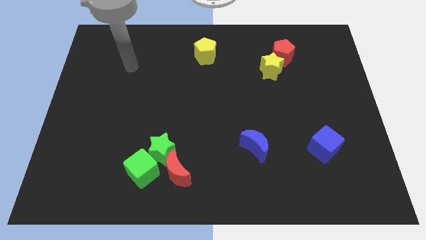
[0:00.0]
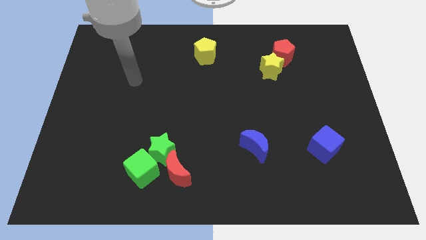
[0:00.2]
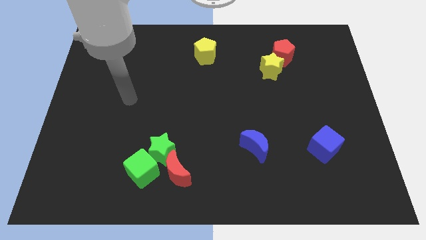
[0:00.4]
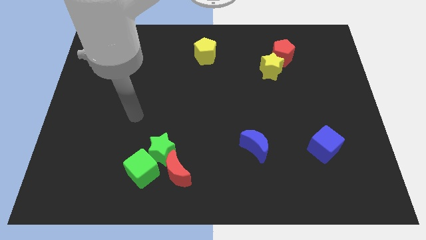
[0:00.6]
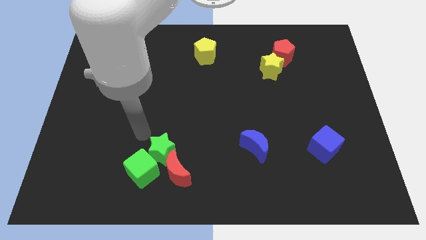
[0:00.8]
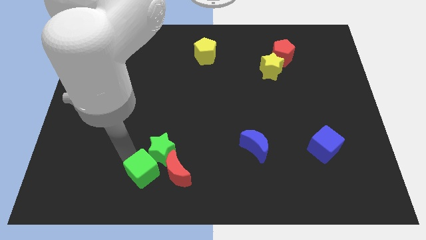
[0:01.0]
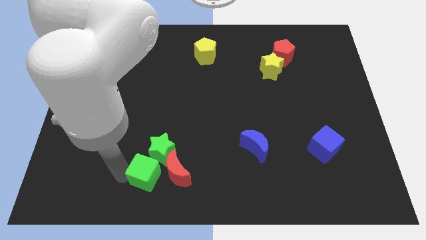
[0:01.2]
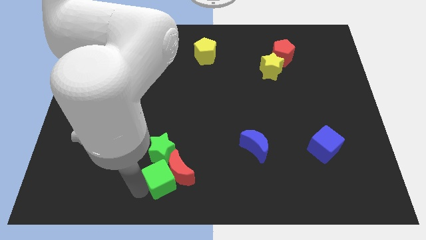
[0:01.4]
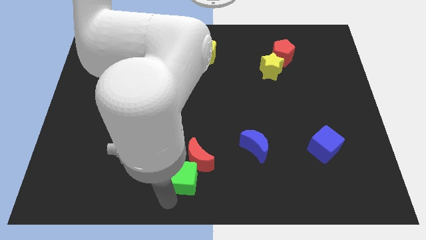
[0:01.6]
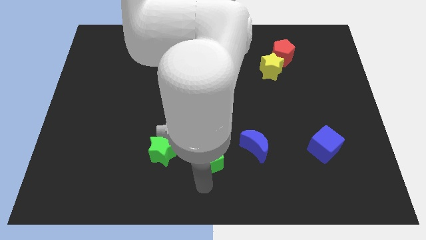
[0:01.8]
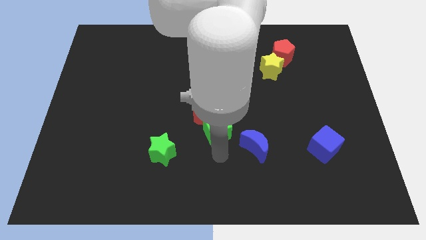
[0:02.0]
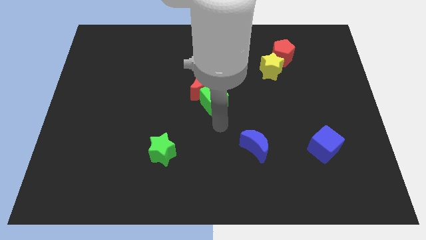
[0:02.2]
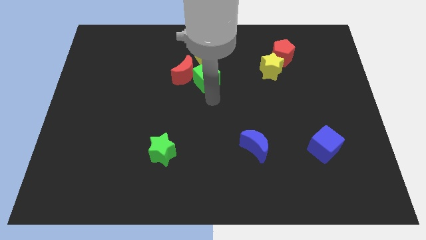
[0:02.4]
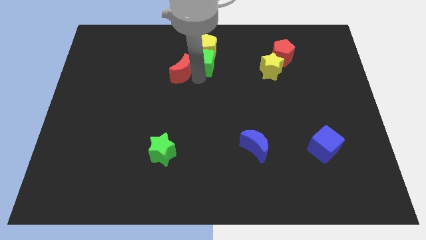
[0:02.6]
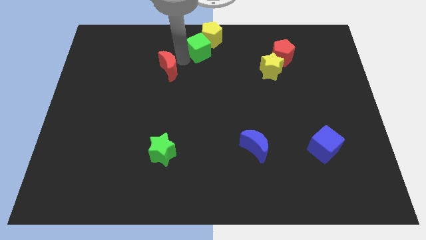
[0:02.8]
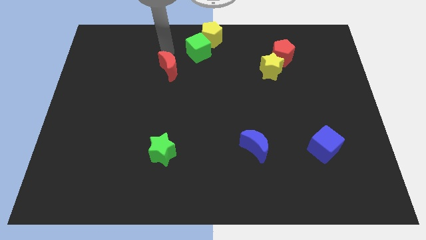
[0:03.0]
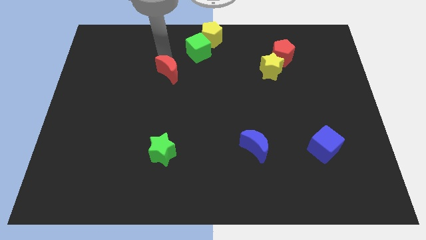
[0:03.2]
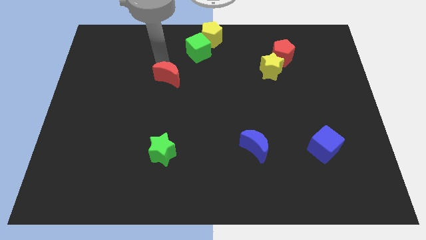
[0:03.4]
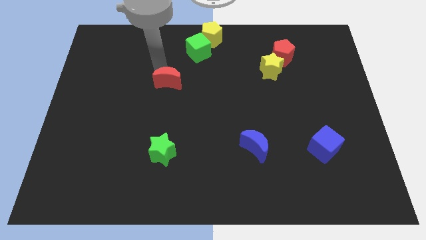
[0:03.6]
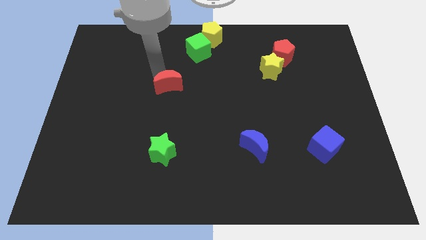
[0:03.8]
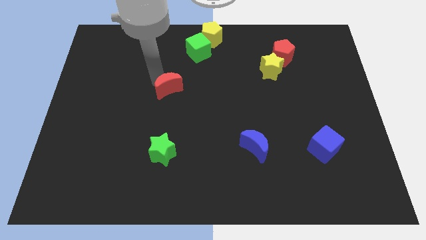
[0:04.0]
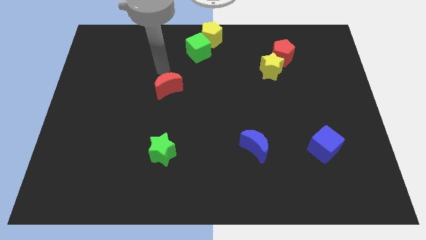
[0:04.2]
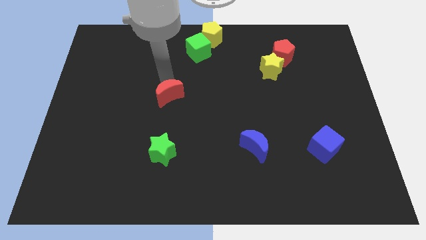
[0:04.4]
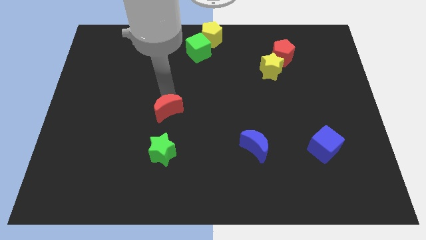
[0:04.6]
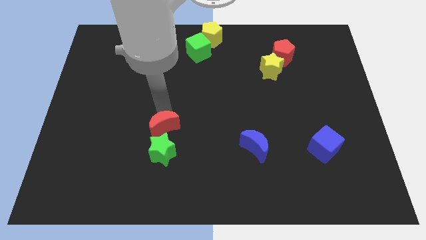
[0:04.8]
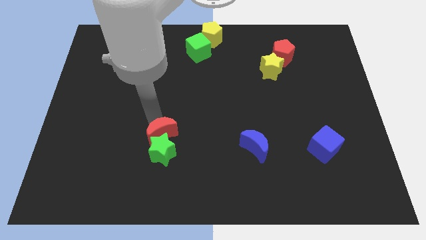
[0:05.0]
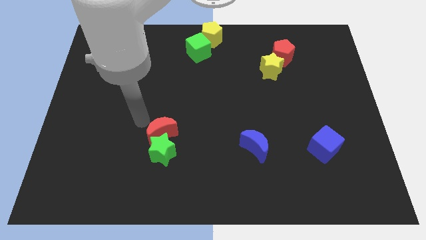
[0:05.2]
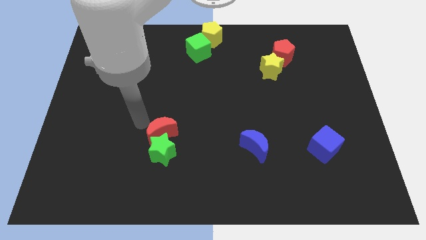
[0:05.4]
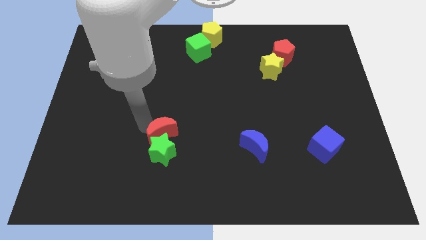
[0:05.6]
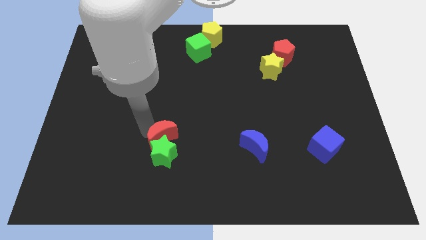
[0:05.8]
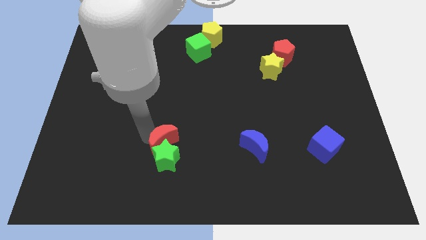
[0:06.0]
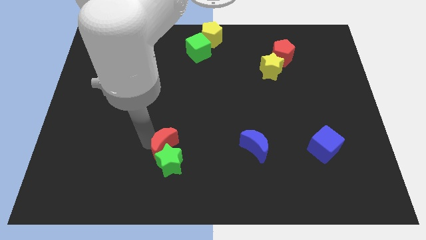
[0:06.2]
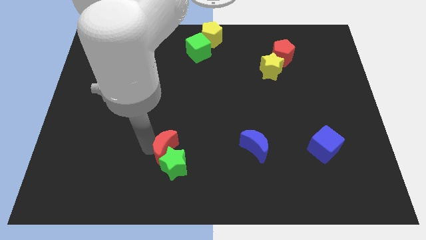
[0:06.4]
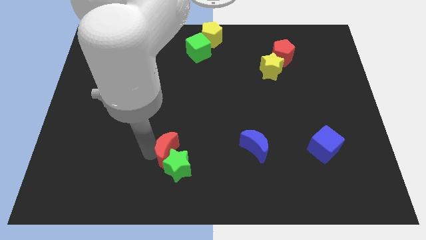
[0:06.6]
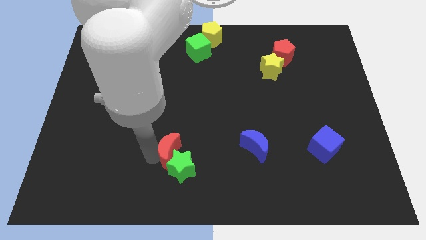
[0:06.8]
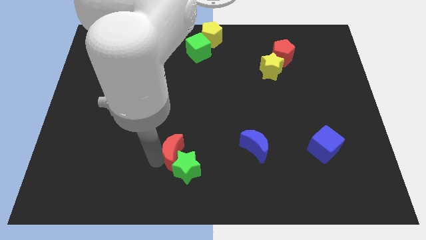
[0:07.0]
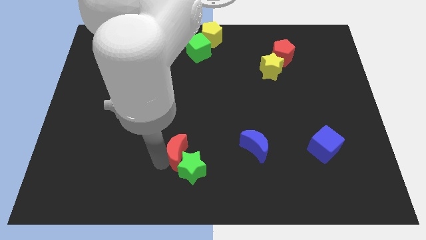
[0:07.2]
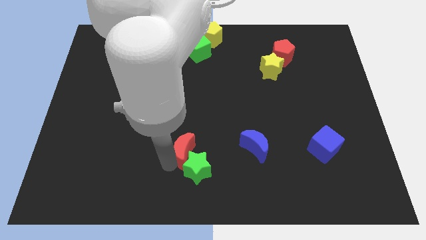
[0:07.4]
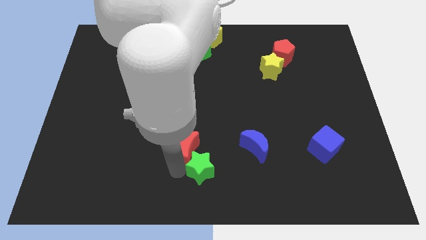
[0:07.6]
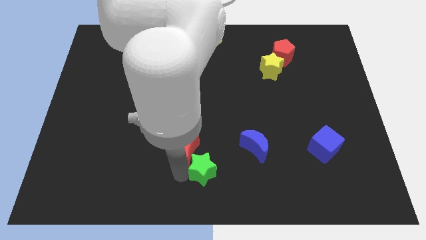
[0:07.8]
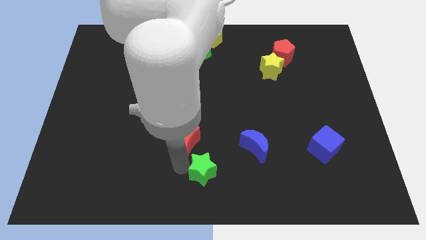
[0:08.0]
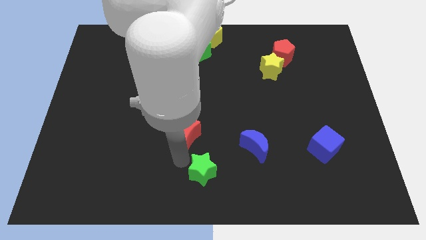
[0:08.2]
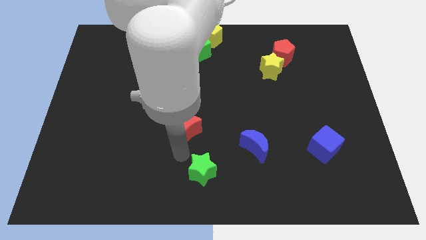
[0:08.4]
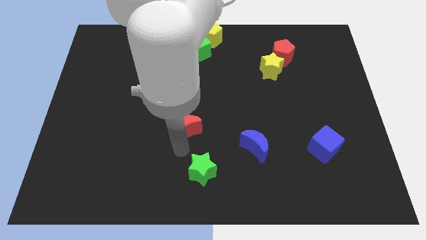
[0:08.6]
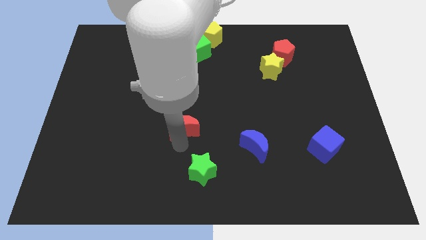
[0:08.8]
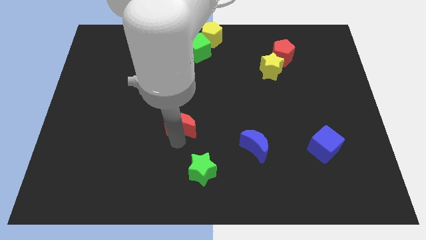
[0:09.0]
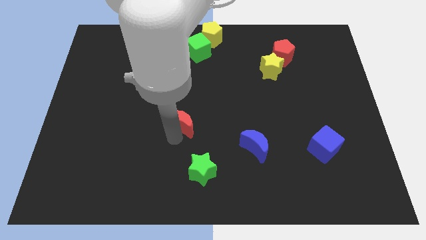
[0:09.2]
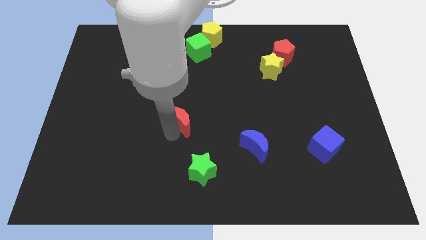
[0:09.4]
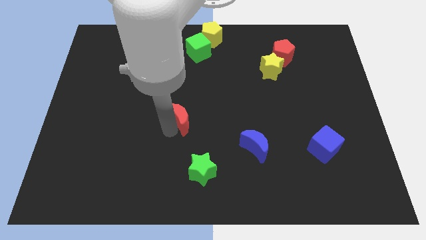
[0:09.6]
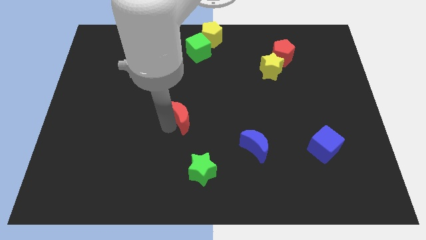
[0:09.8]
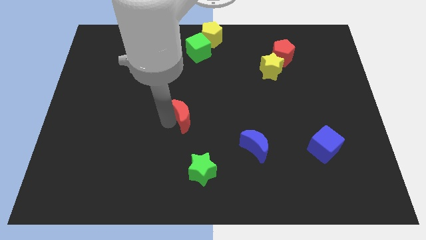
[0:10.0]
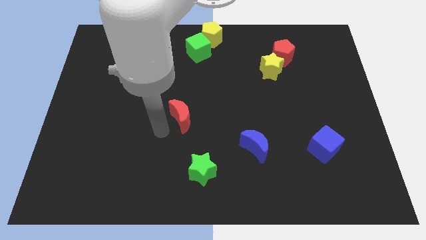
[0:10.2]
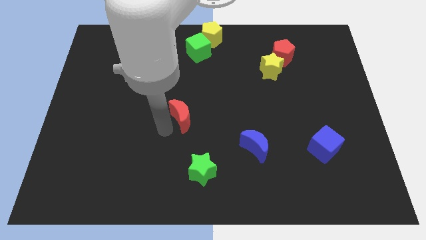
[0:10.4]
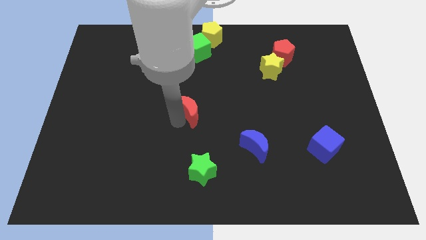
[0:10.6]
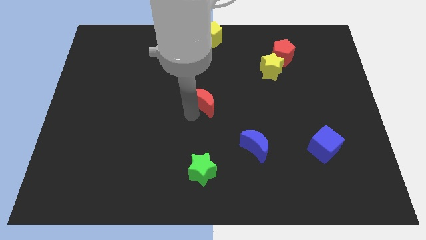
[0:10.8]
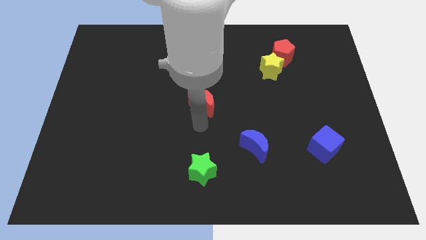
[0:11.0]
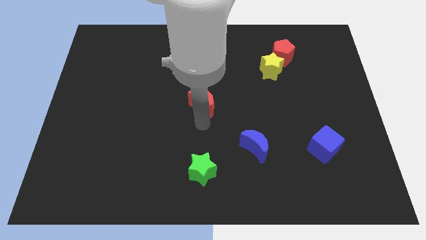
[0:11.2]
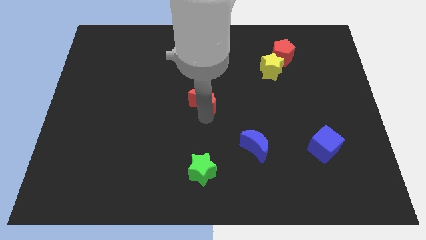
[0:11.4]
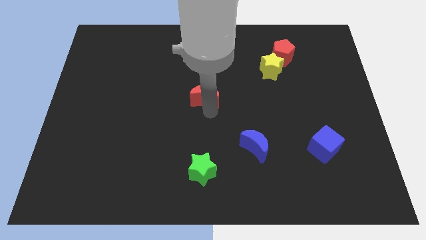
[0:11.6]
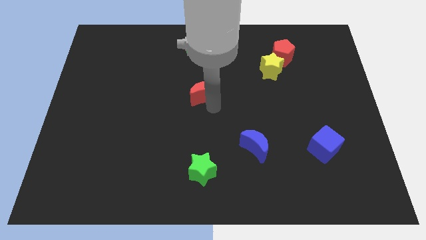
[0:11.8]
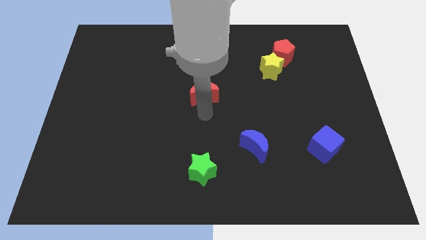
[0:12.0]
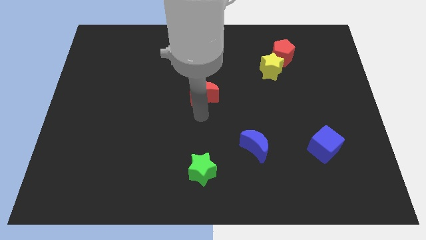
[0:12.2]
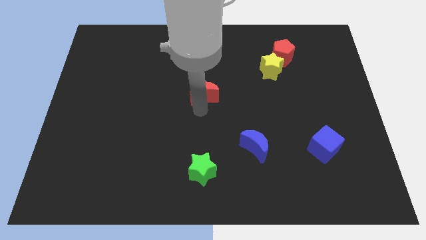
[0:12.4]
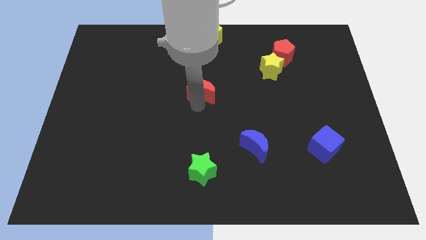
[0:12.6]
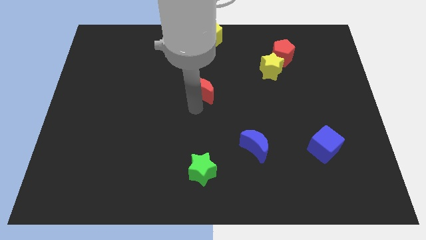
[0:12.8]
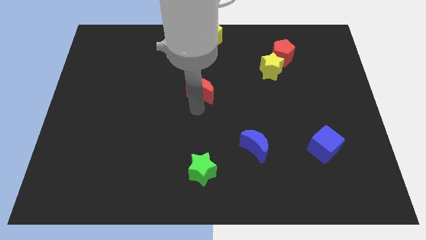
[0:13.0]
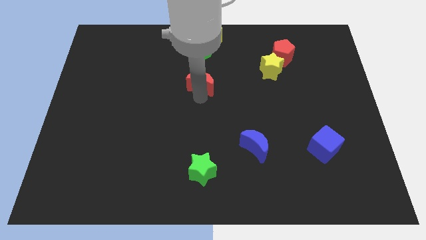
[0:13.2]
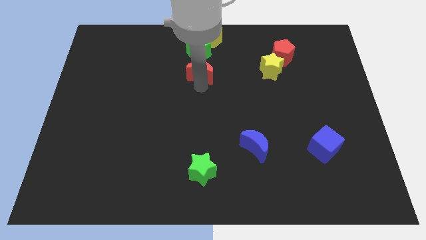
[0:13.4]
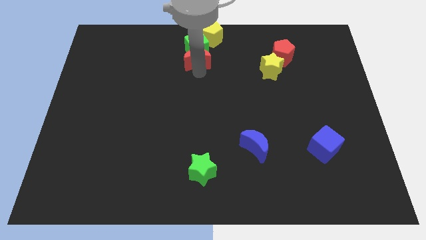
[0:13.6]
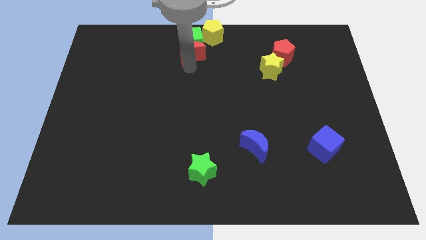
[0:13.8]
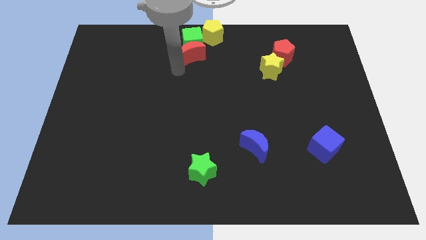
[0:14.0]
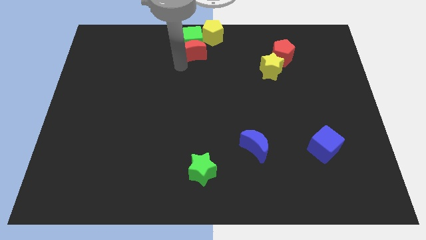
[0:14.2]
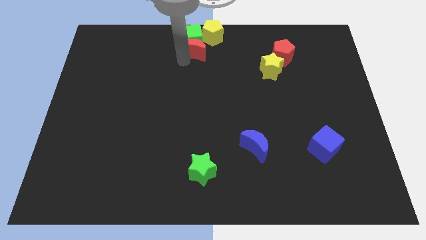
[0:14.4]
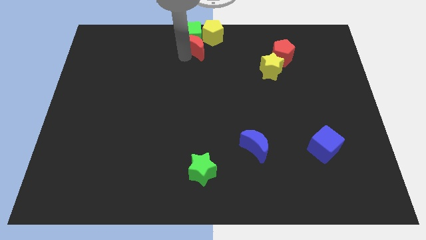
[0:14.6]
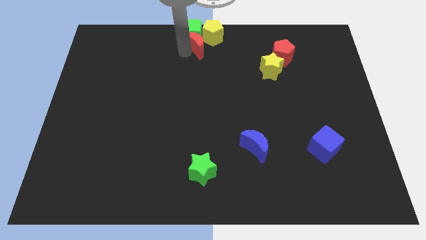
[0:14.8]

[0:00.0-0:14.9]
slide the red moon close to the yellow pentagon

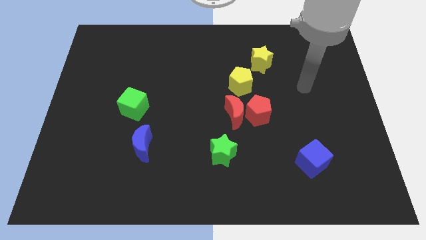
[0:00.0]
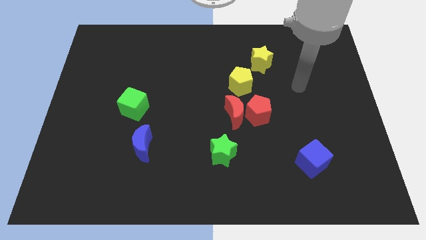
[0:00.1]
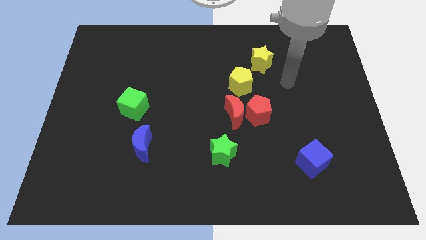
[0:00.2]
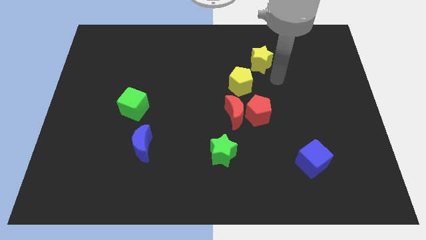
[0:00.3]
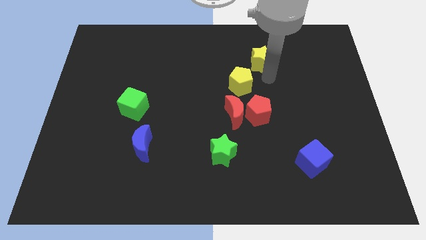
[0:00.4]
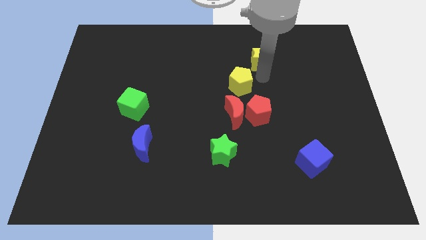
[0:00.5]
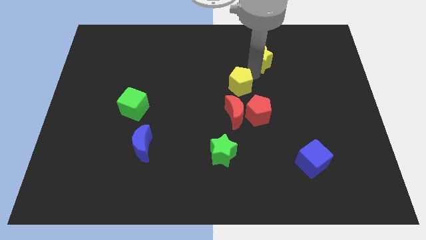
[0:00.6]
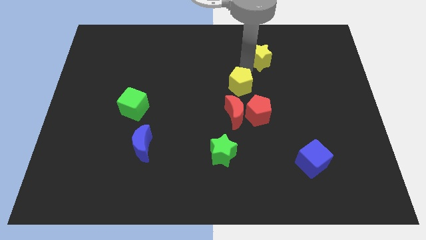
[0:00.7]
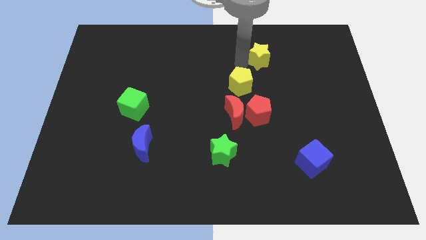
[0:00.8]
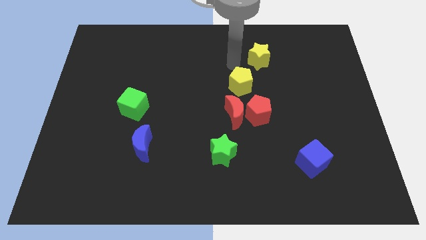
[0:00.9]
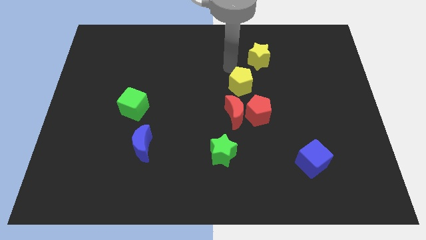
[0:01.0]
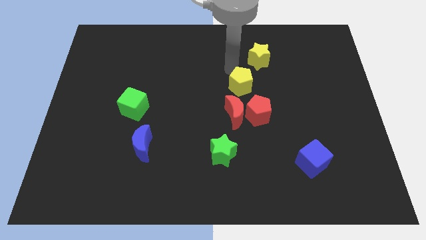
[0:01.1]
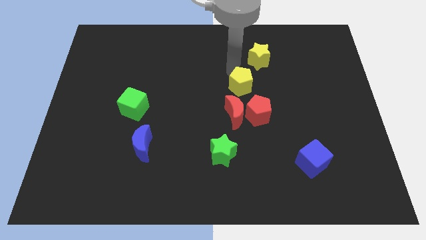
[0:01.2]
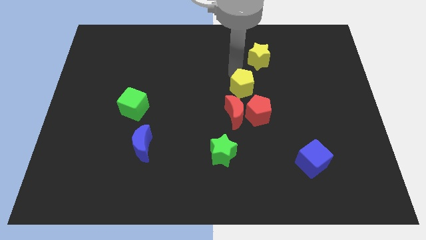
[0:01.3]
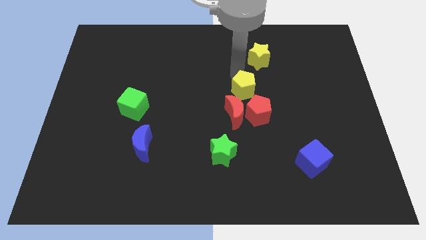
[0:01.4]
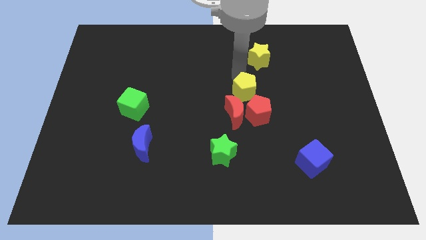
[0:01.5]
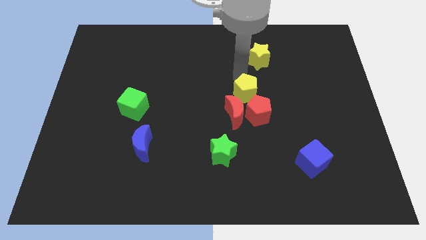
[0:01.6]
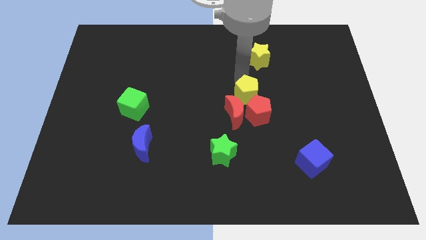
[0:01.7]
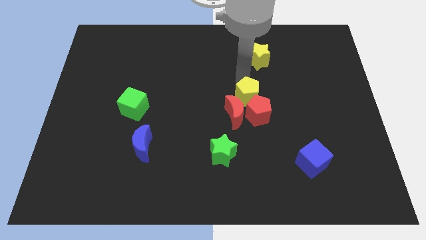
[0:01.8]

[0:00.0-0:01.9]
slide the yellow pentagon next to the red pentagon
